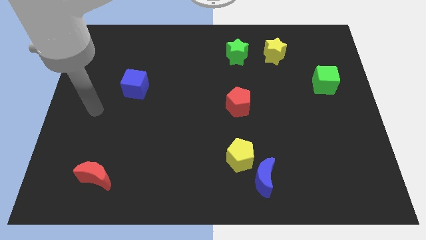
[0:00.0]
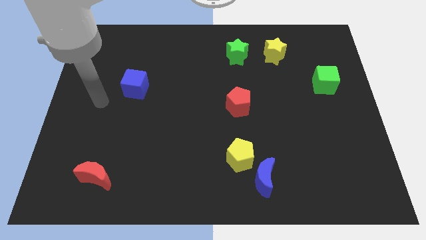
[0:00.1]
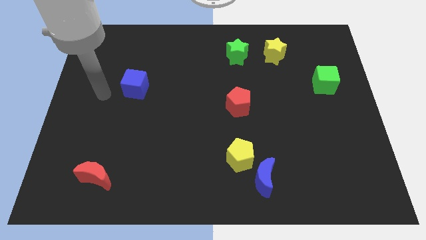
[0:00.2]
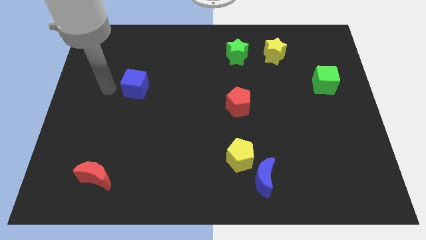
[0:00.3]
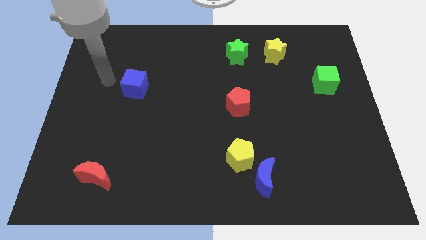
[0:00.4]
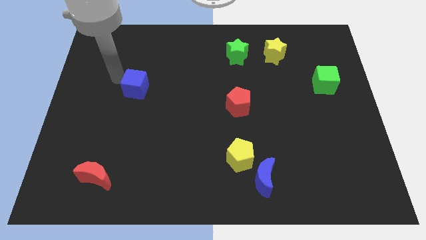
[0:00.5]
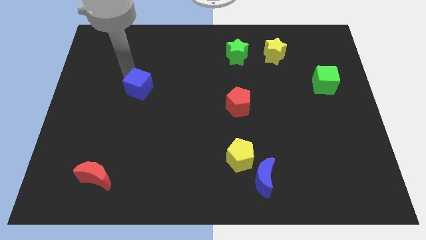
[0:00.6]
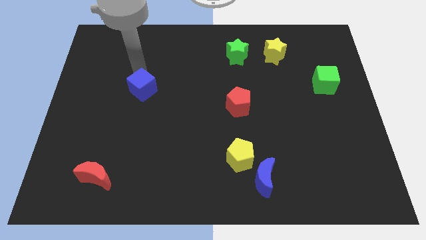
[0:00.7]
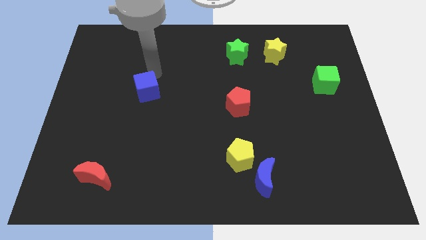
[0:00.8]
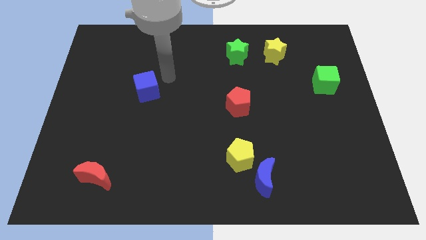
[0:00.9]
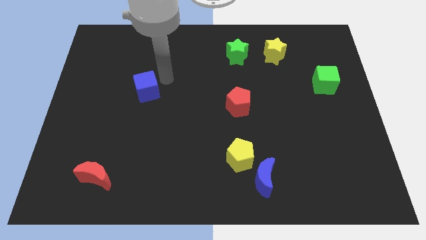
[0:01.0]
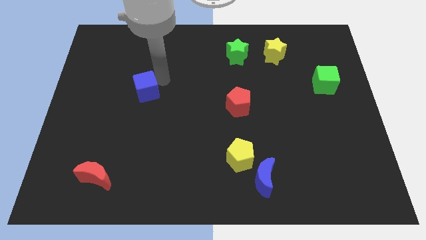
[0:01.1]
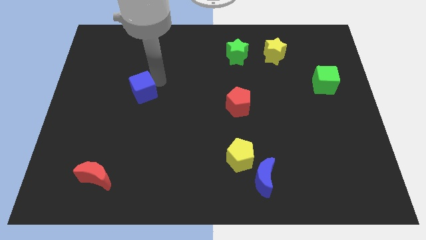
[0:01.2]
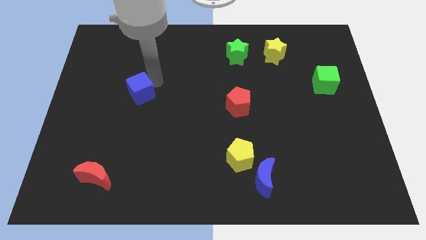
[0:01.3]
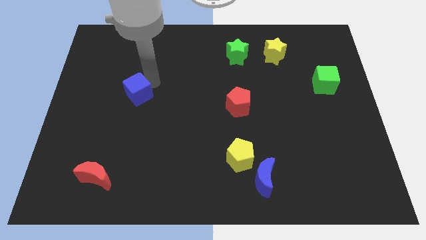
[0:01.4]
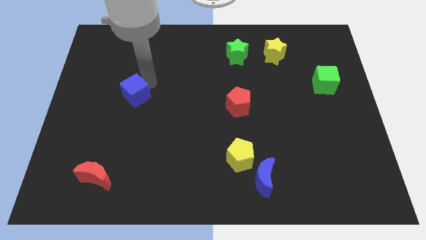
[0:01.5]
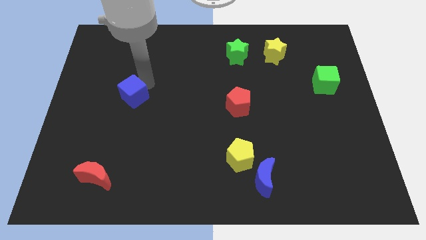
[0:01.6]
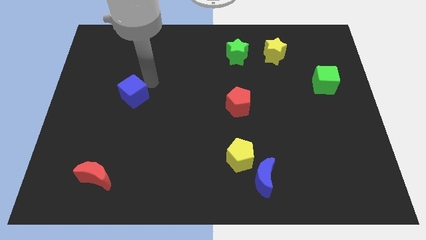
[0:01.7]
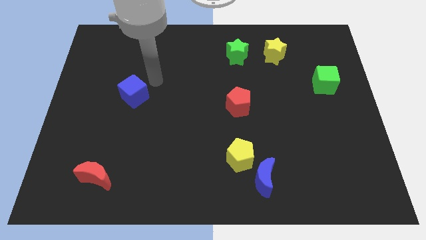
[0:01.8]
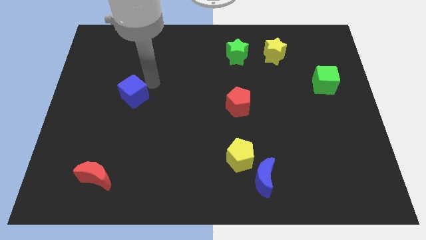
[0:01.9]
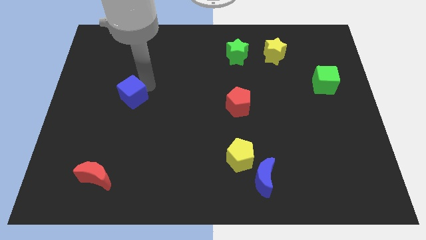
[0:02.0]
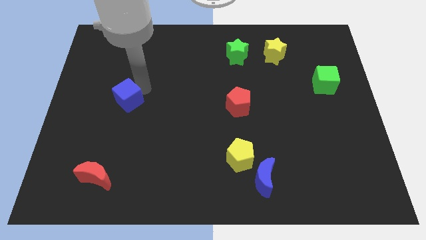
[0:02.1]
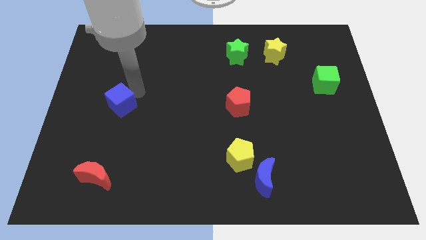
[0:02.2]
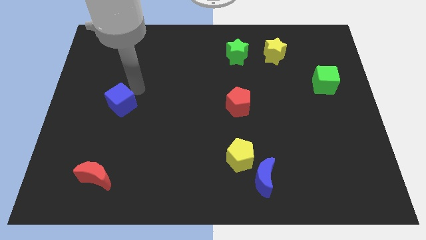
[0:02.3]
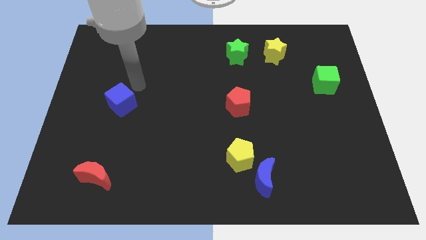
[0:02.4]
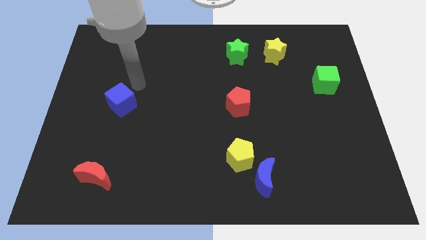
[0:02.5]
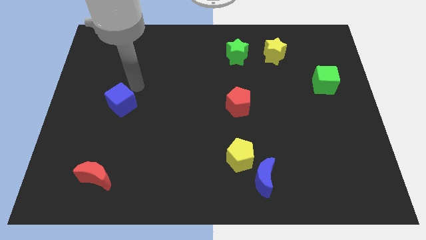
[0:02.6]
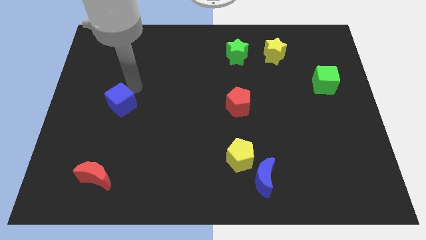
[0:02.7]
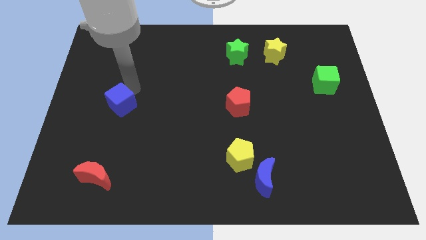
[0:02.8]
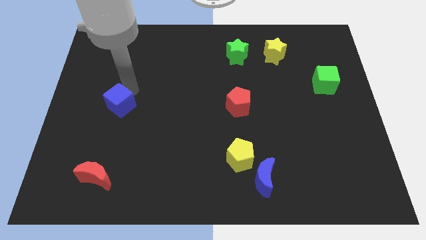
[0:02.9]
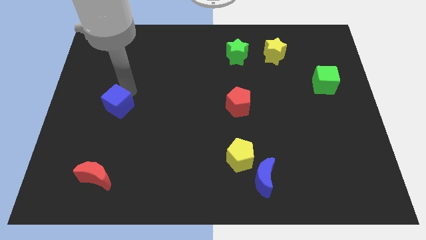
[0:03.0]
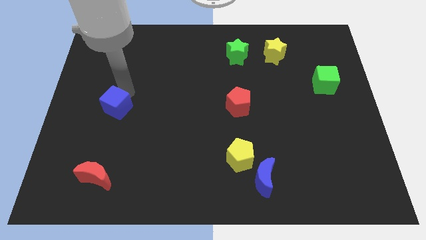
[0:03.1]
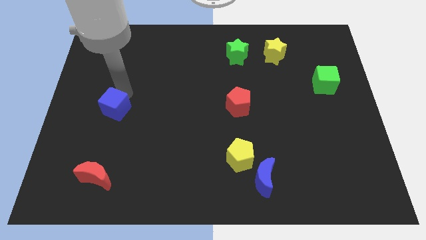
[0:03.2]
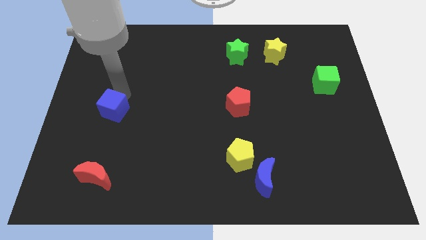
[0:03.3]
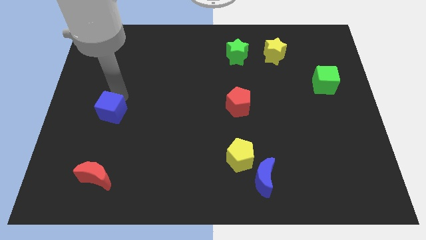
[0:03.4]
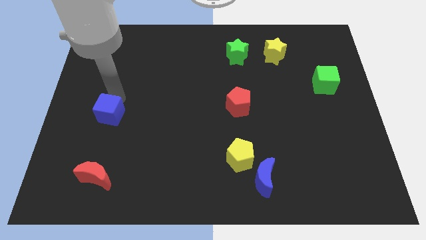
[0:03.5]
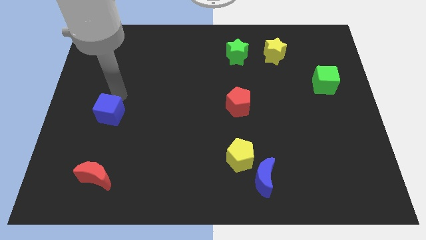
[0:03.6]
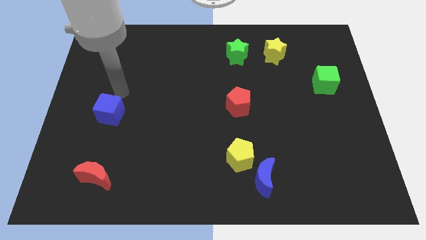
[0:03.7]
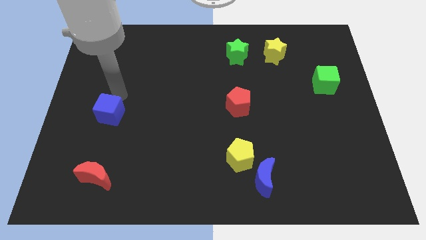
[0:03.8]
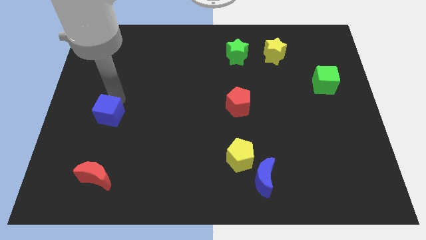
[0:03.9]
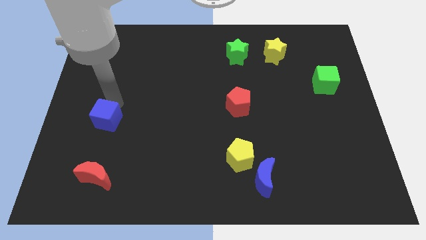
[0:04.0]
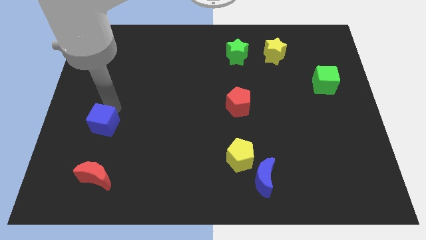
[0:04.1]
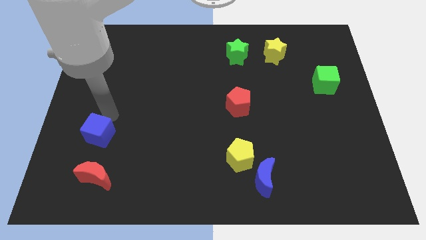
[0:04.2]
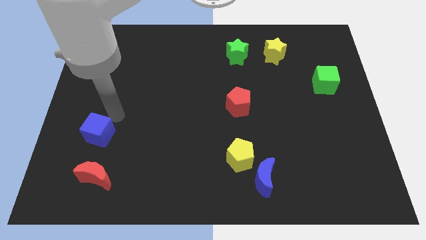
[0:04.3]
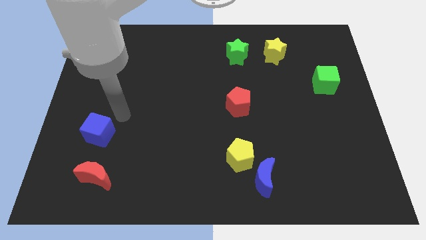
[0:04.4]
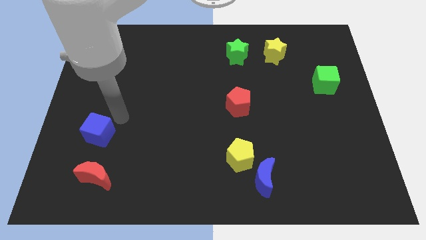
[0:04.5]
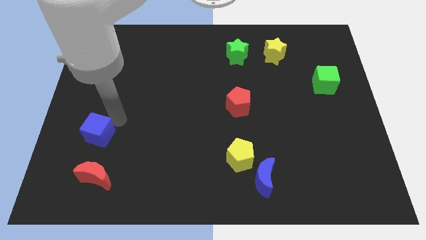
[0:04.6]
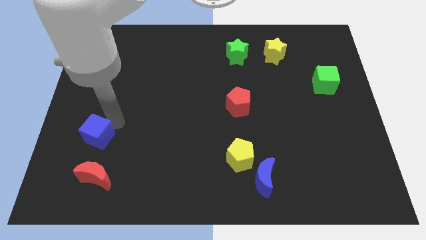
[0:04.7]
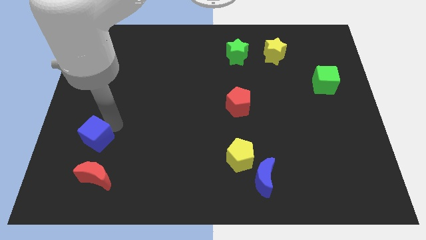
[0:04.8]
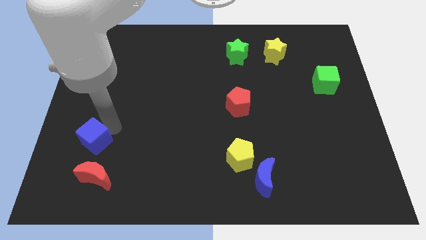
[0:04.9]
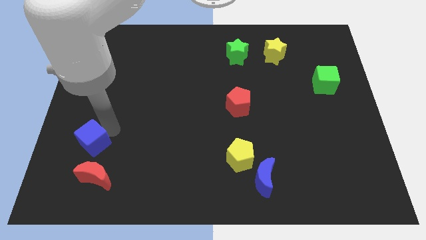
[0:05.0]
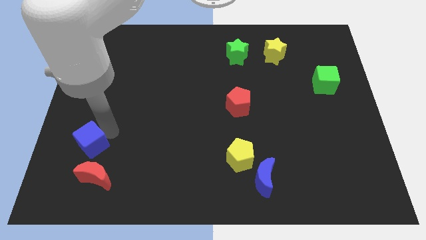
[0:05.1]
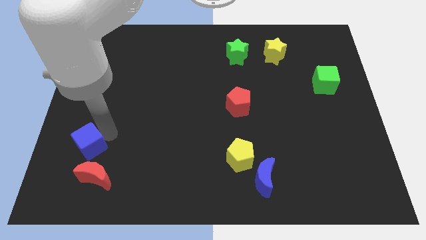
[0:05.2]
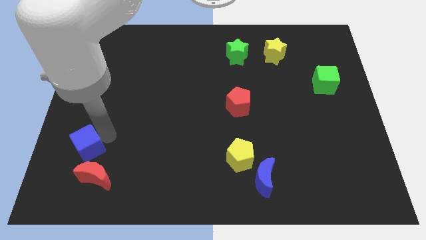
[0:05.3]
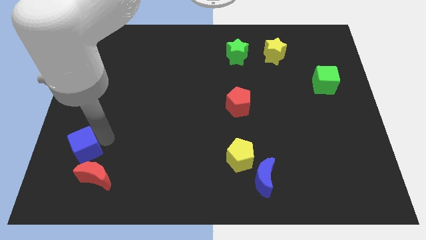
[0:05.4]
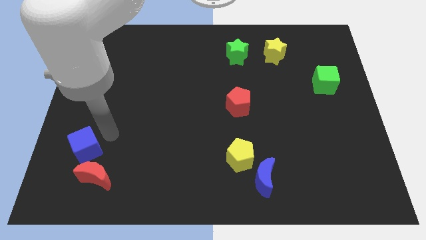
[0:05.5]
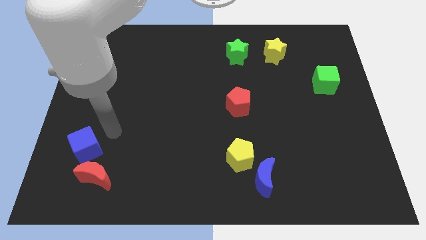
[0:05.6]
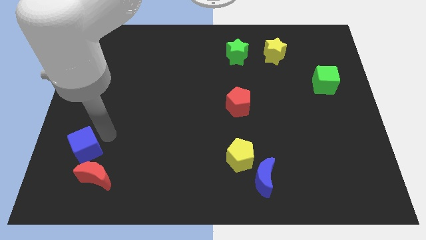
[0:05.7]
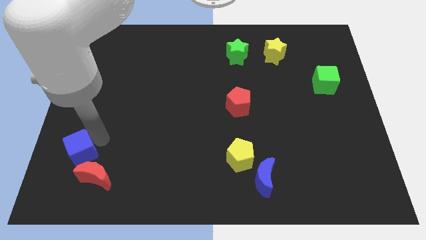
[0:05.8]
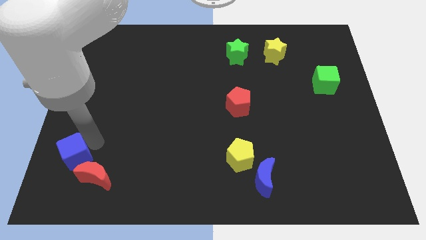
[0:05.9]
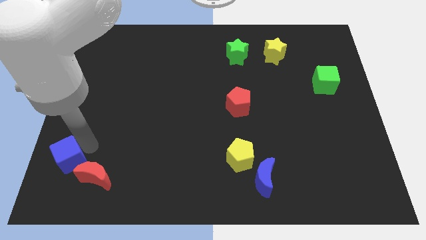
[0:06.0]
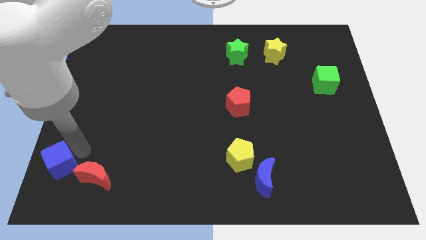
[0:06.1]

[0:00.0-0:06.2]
put the blue cube to the bottom left corner

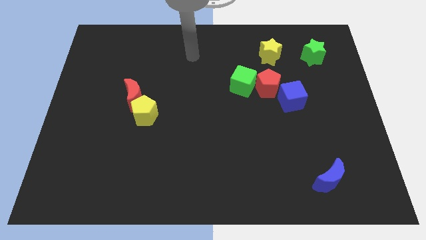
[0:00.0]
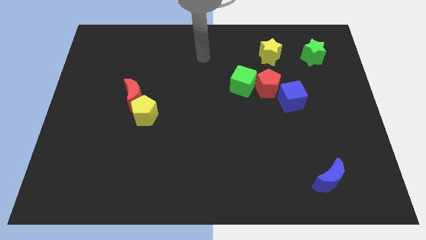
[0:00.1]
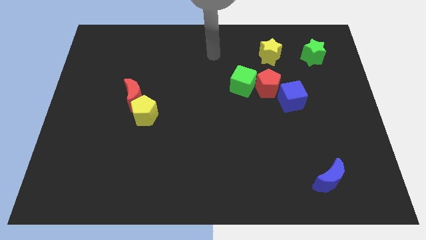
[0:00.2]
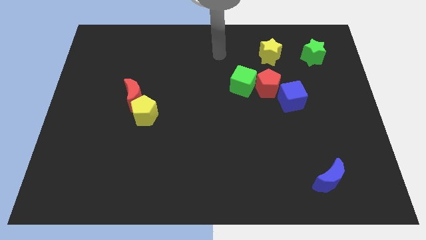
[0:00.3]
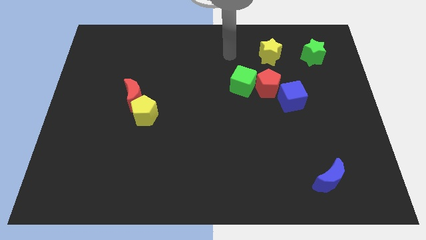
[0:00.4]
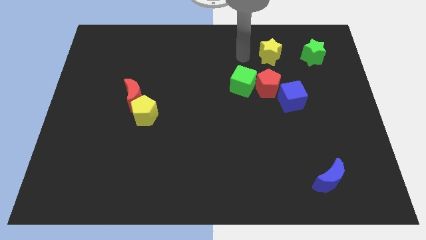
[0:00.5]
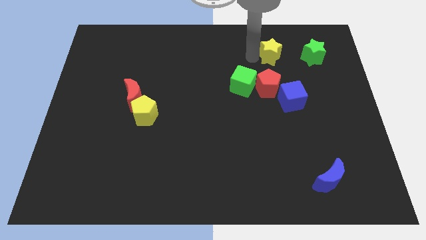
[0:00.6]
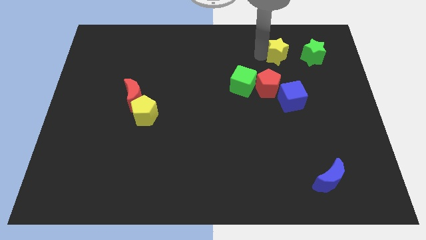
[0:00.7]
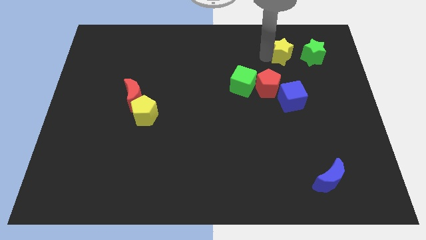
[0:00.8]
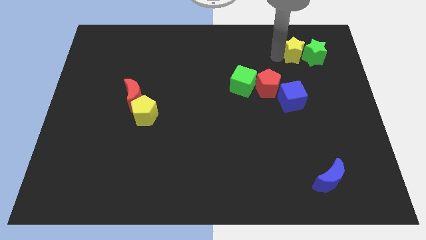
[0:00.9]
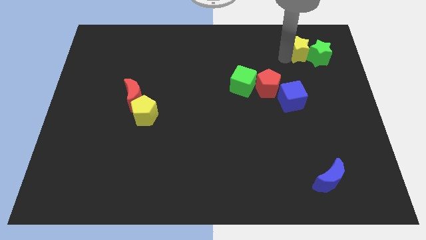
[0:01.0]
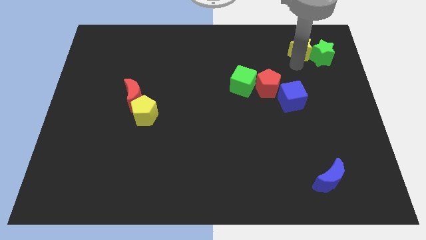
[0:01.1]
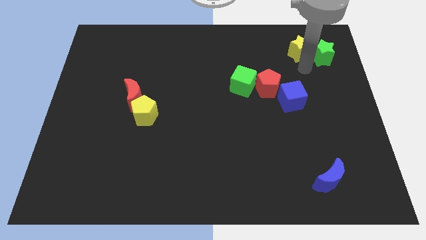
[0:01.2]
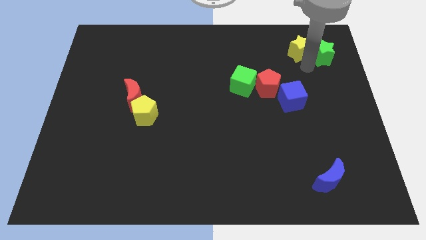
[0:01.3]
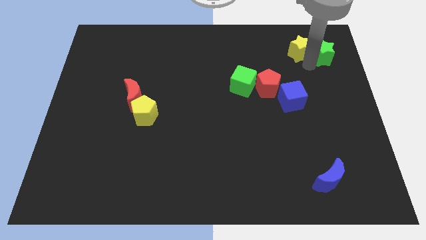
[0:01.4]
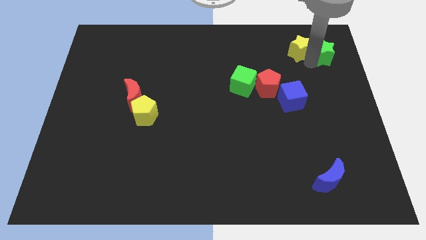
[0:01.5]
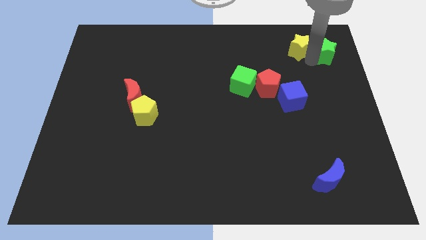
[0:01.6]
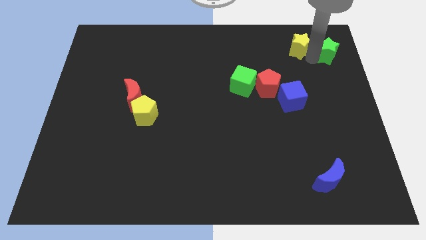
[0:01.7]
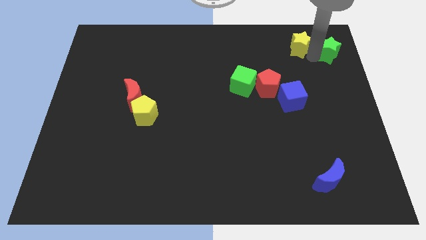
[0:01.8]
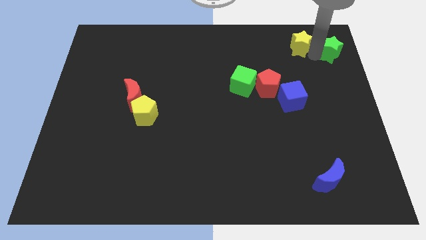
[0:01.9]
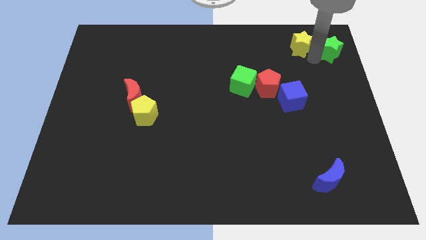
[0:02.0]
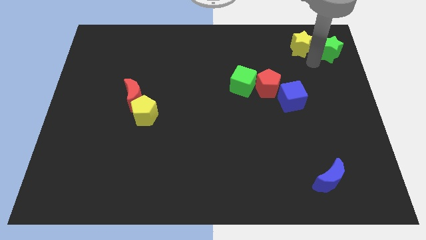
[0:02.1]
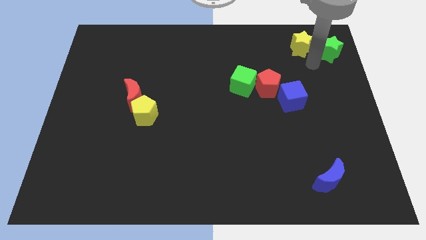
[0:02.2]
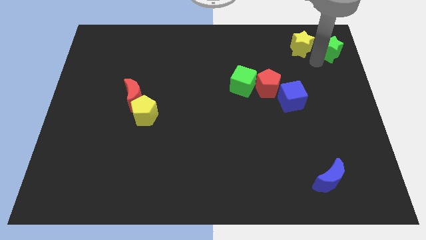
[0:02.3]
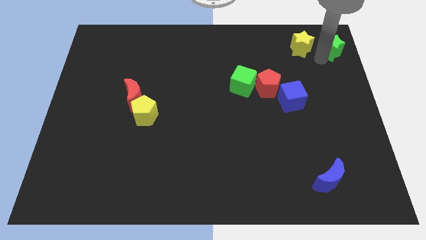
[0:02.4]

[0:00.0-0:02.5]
slide the green star to the top right of the board
